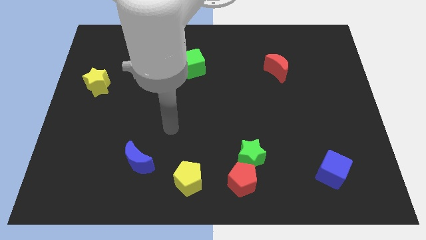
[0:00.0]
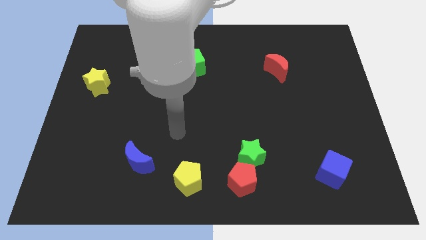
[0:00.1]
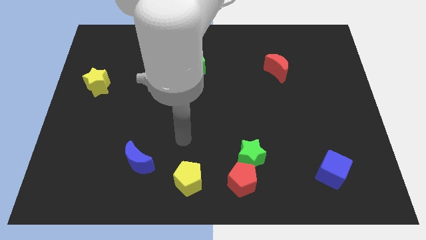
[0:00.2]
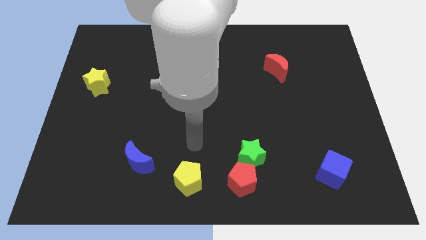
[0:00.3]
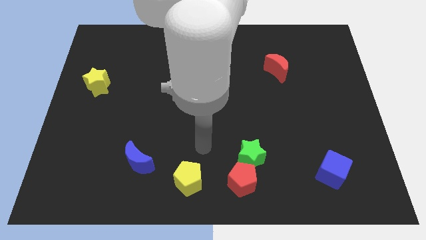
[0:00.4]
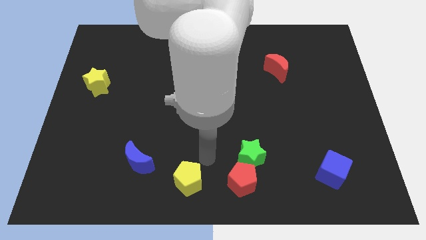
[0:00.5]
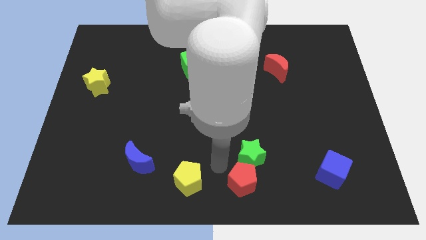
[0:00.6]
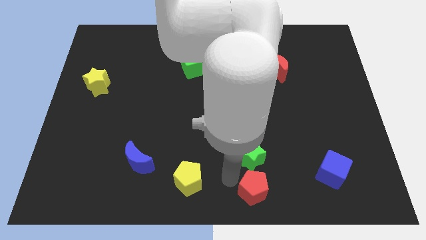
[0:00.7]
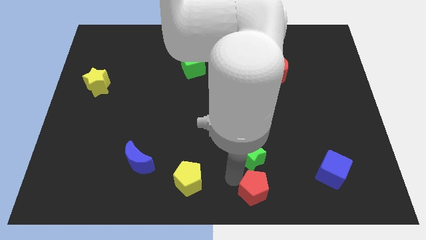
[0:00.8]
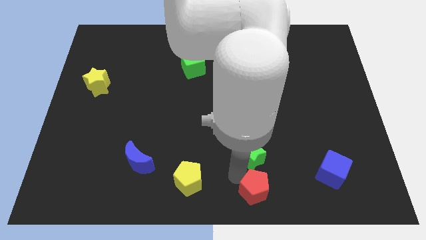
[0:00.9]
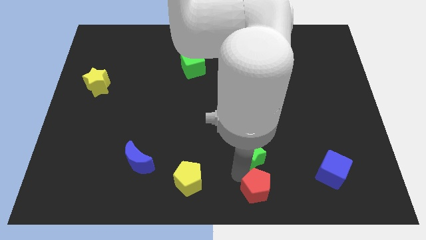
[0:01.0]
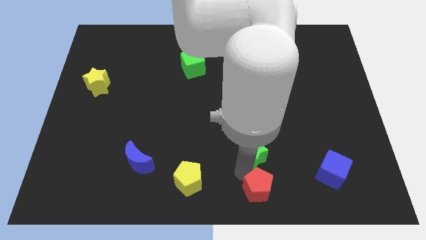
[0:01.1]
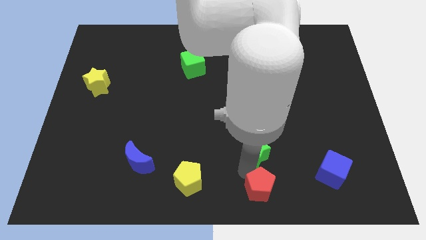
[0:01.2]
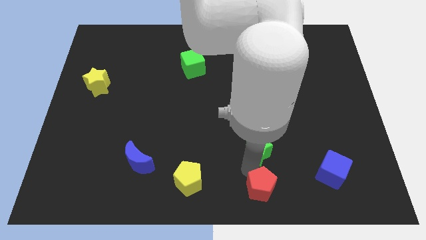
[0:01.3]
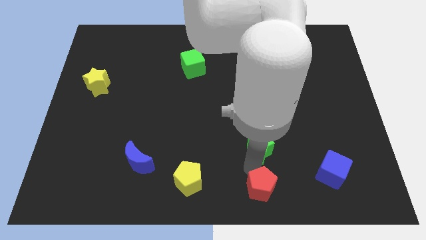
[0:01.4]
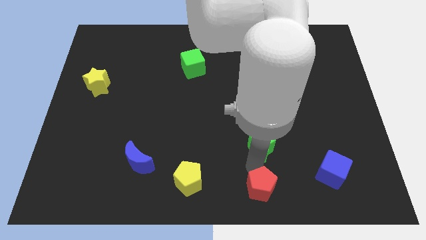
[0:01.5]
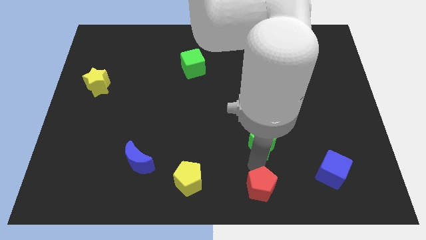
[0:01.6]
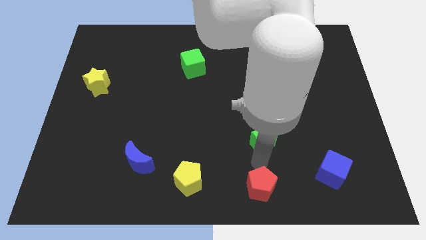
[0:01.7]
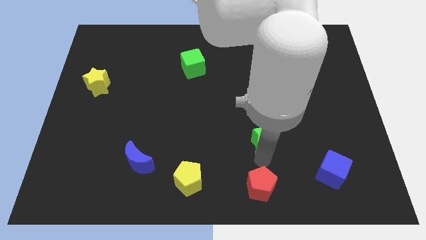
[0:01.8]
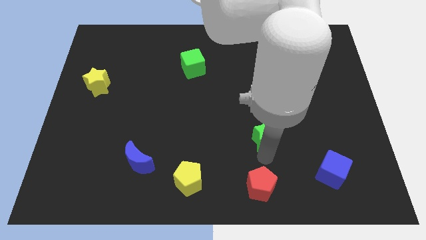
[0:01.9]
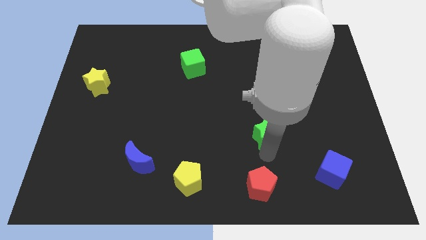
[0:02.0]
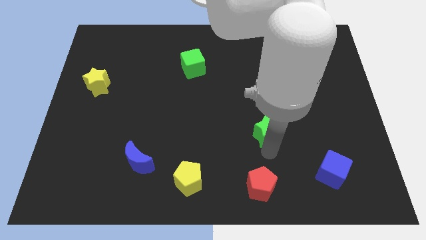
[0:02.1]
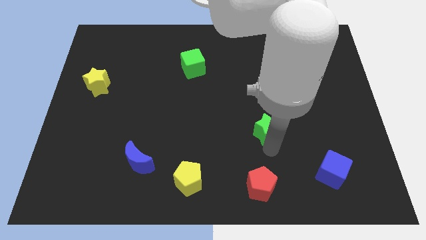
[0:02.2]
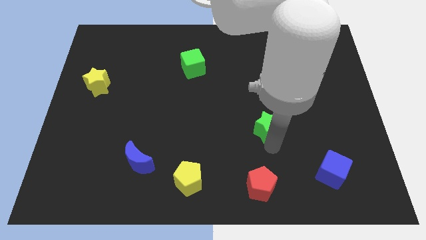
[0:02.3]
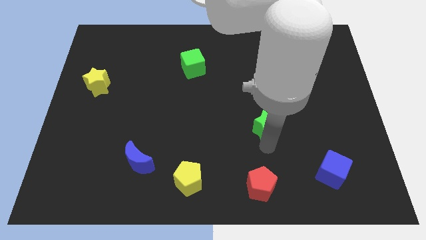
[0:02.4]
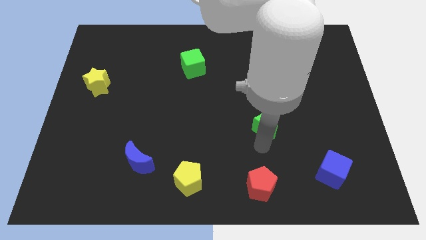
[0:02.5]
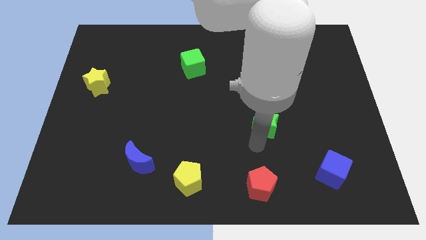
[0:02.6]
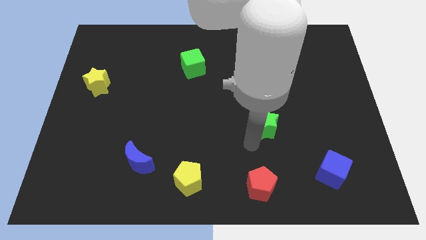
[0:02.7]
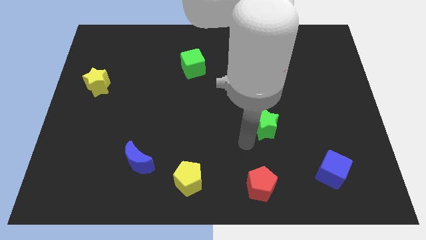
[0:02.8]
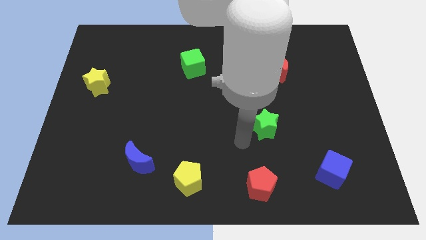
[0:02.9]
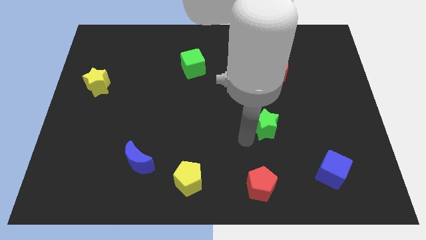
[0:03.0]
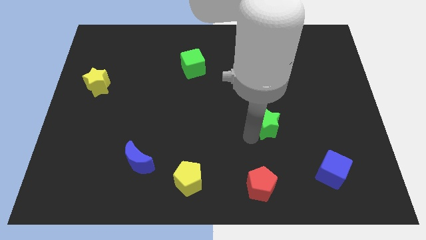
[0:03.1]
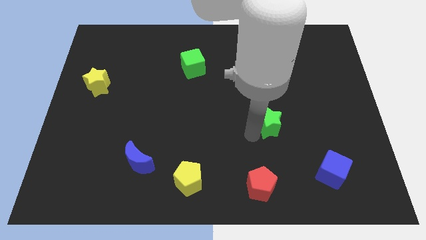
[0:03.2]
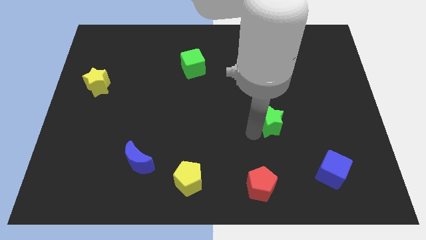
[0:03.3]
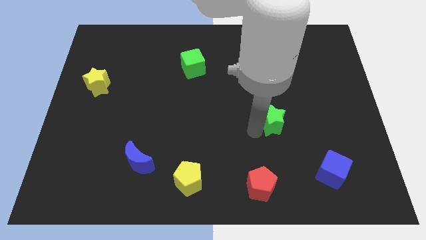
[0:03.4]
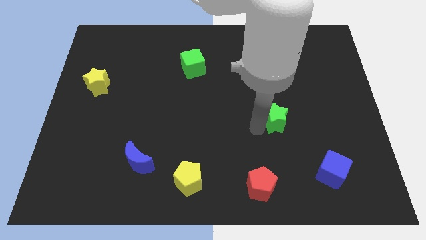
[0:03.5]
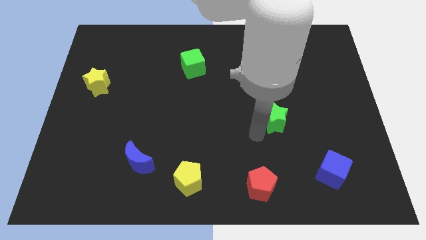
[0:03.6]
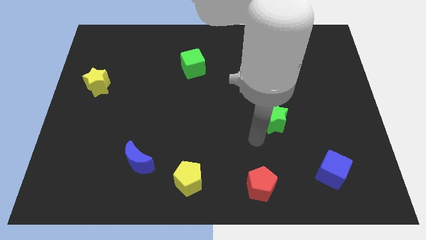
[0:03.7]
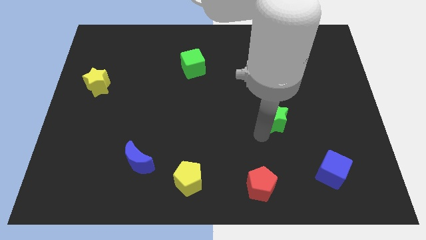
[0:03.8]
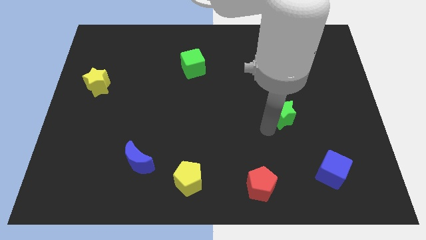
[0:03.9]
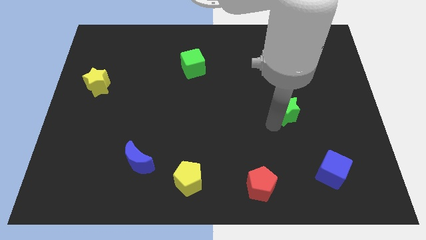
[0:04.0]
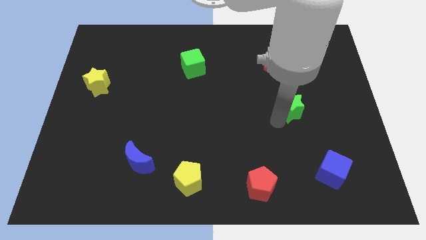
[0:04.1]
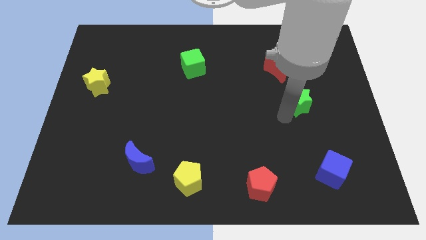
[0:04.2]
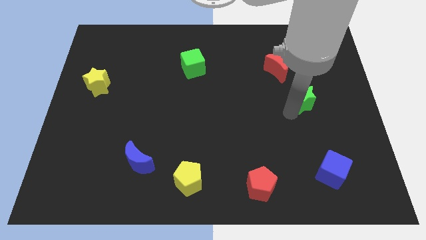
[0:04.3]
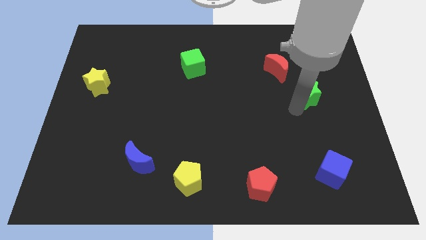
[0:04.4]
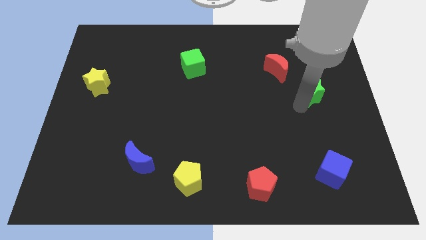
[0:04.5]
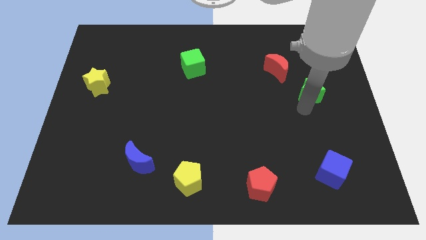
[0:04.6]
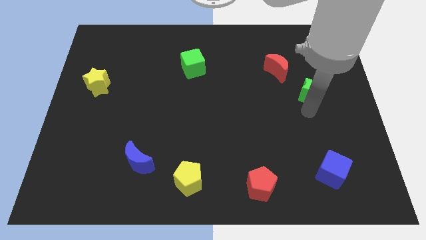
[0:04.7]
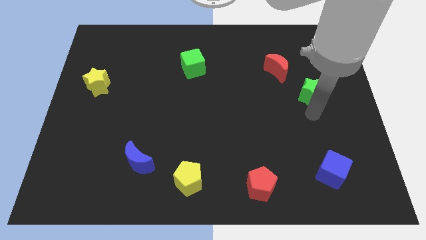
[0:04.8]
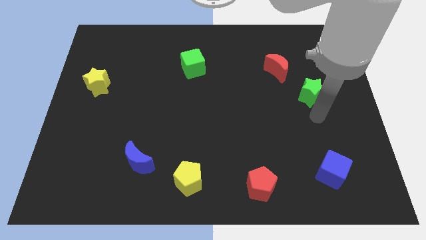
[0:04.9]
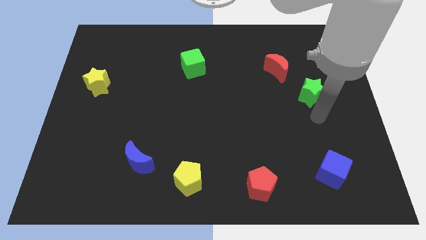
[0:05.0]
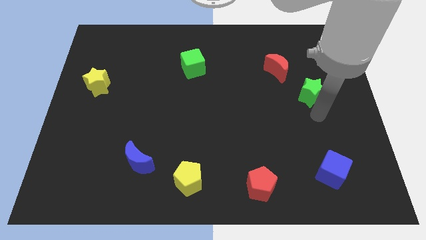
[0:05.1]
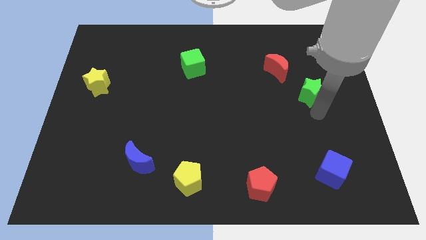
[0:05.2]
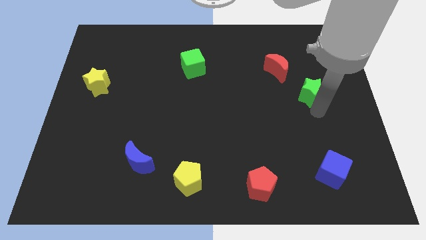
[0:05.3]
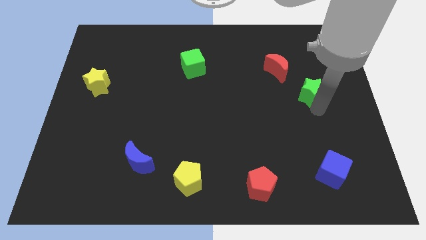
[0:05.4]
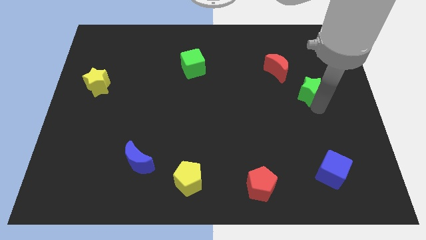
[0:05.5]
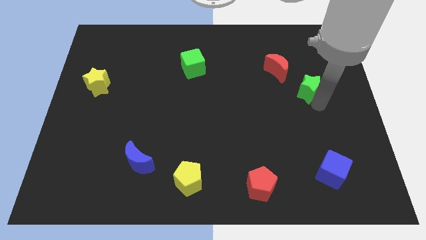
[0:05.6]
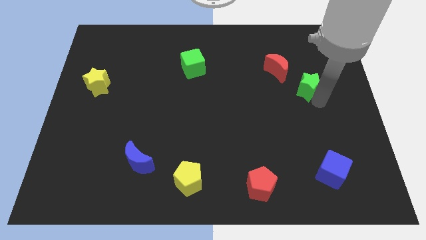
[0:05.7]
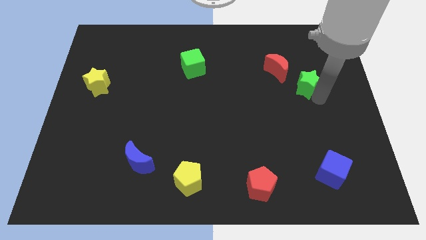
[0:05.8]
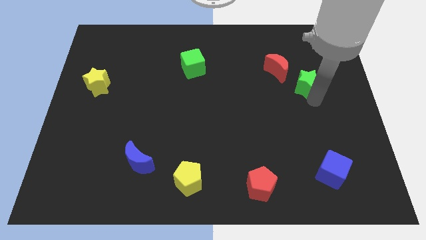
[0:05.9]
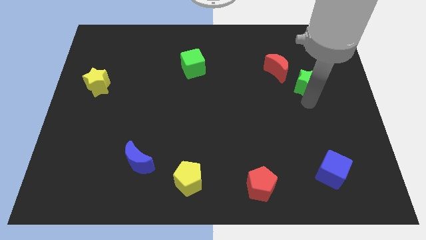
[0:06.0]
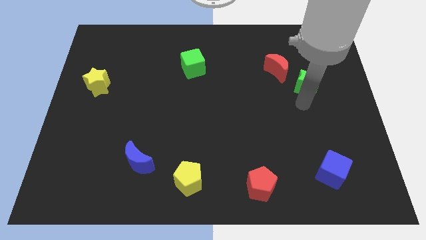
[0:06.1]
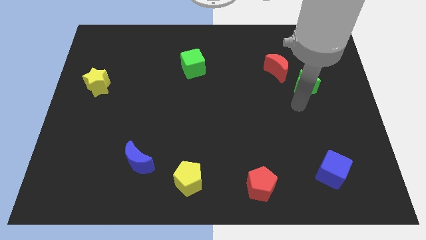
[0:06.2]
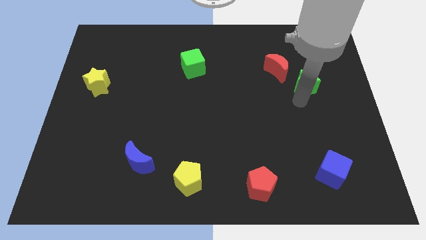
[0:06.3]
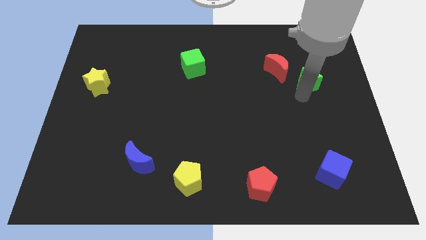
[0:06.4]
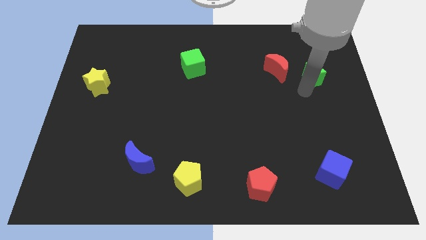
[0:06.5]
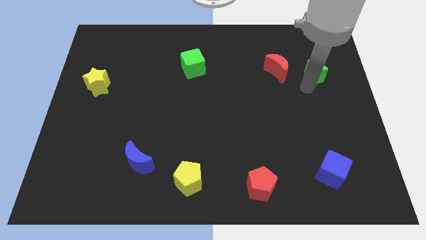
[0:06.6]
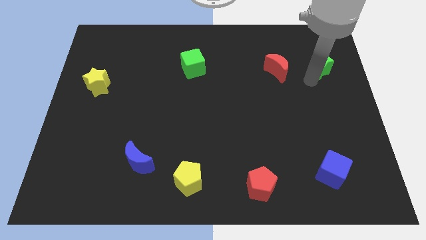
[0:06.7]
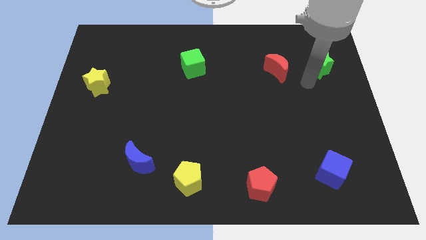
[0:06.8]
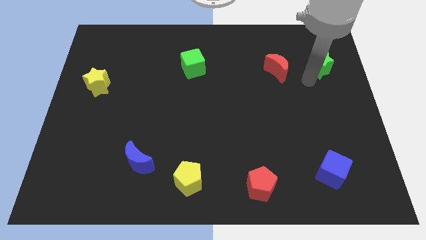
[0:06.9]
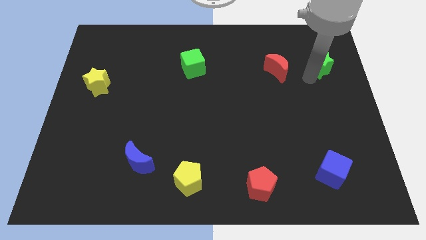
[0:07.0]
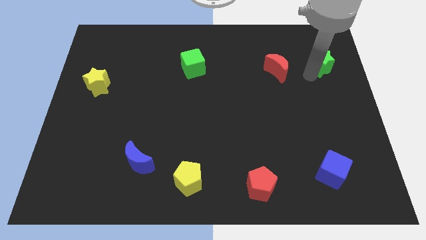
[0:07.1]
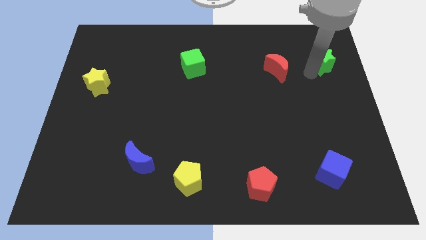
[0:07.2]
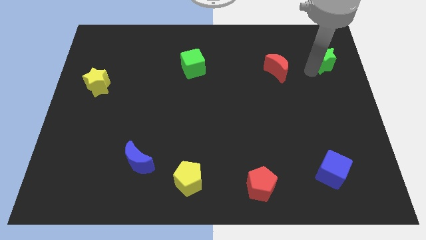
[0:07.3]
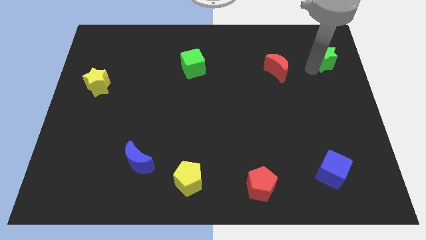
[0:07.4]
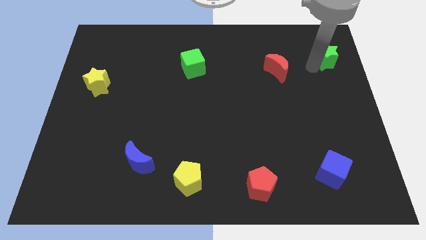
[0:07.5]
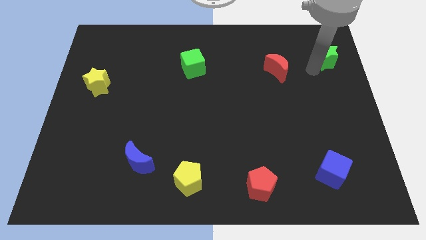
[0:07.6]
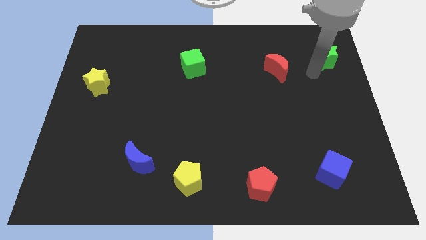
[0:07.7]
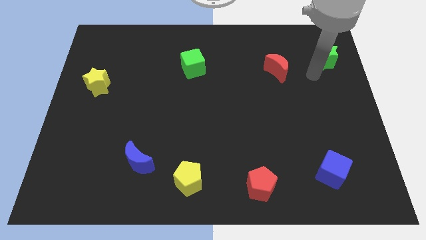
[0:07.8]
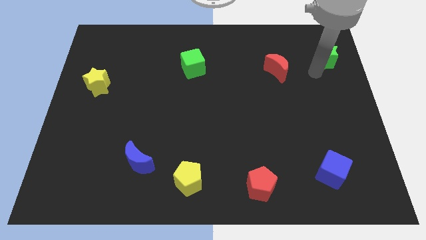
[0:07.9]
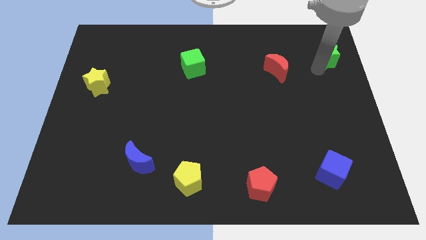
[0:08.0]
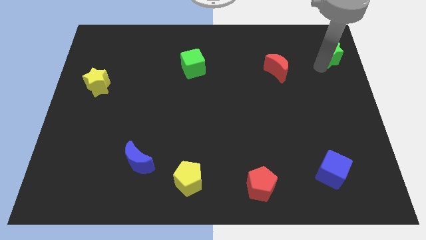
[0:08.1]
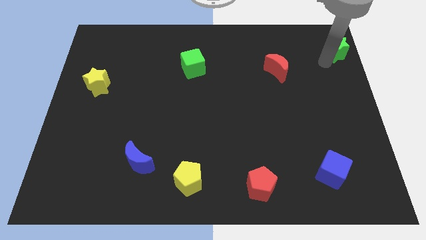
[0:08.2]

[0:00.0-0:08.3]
put the green star to the top right
